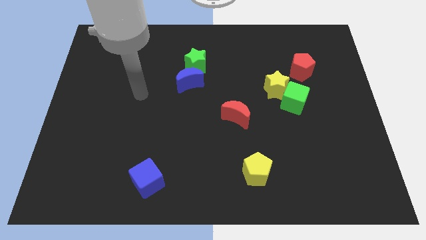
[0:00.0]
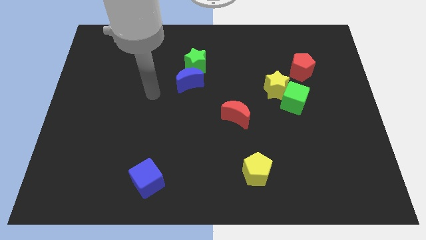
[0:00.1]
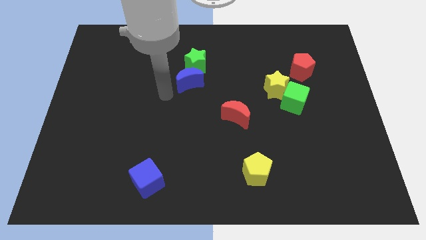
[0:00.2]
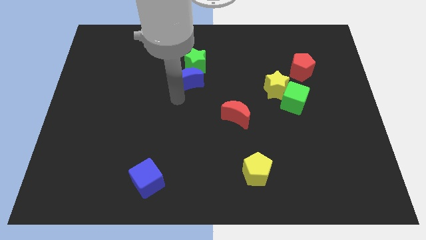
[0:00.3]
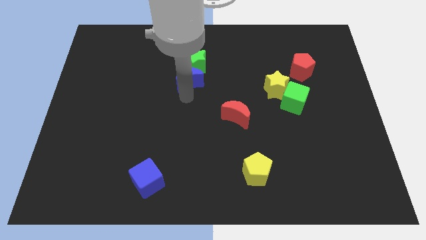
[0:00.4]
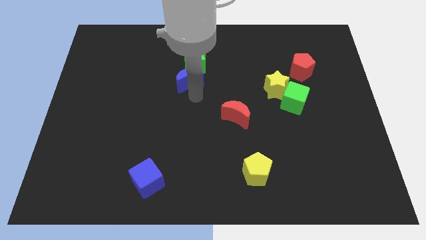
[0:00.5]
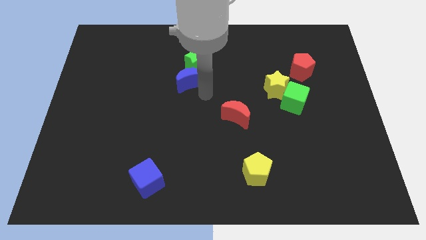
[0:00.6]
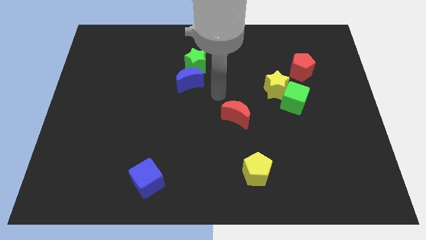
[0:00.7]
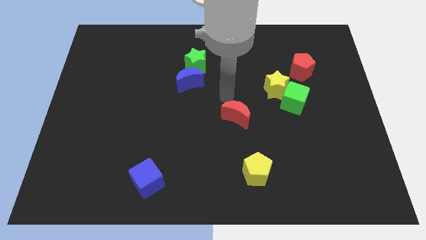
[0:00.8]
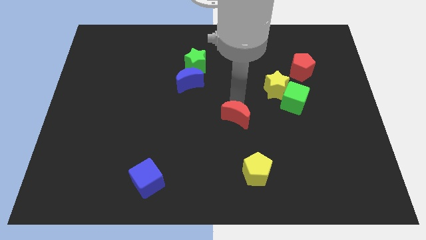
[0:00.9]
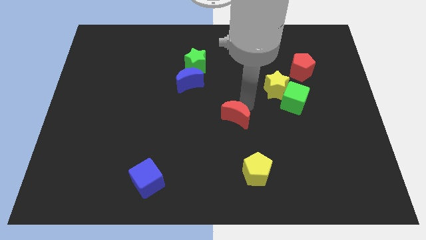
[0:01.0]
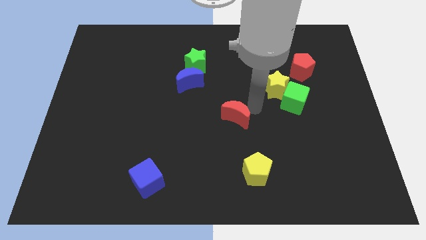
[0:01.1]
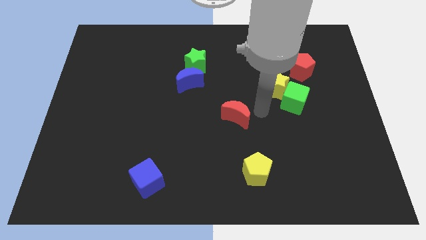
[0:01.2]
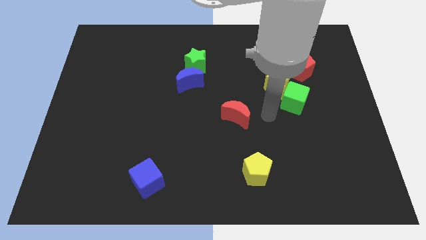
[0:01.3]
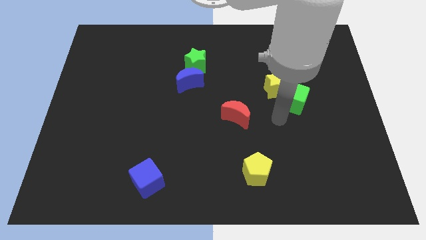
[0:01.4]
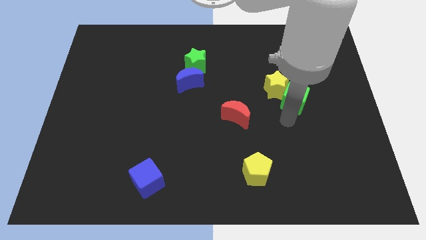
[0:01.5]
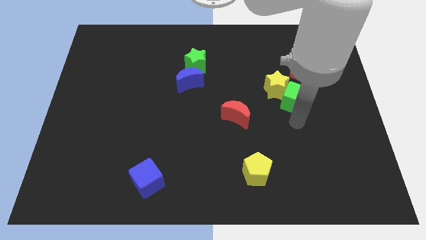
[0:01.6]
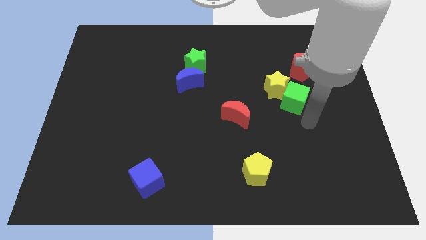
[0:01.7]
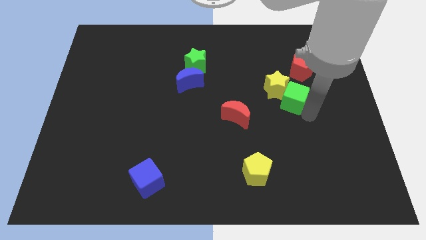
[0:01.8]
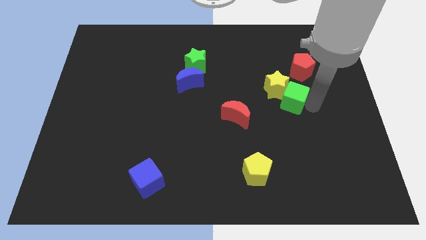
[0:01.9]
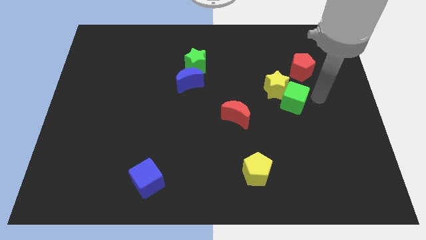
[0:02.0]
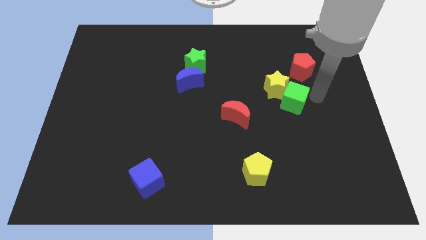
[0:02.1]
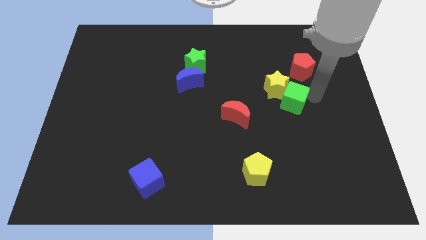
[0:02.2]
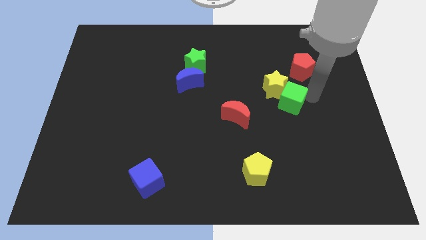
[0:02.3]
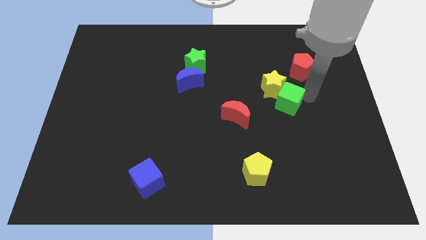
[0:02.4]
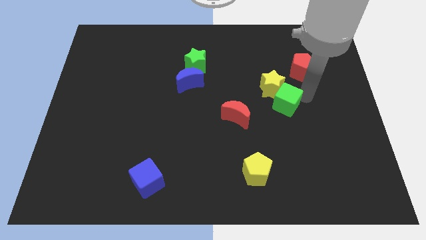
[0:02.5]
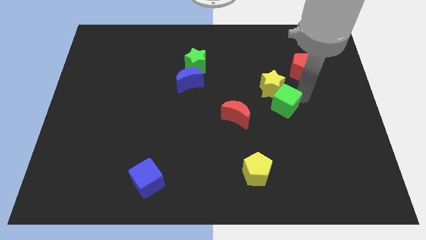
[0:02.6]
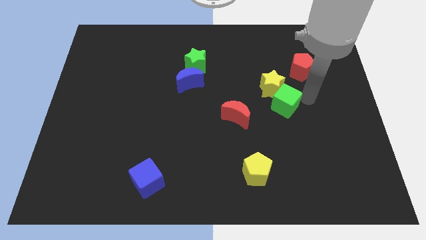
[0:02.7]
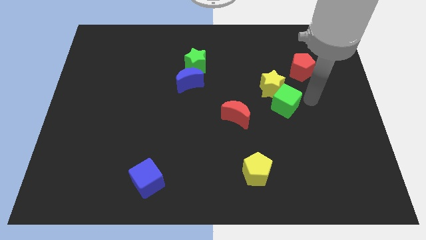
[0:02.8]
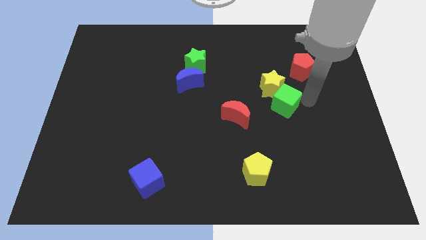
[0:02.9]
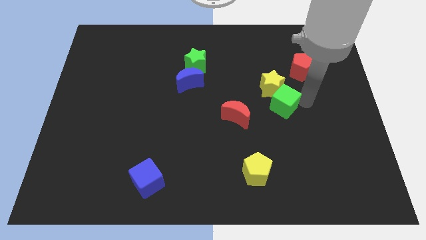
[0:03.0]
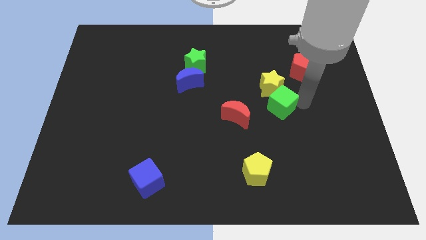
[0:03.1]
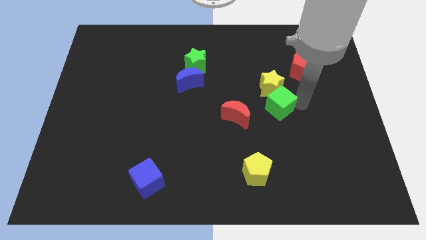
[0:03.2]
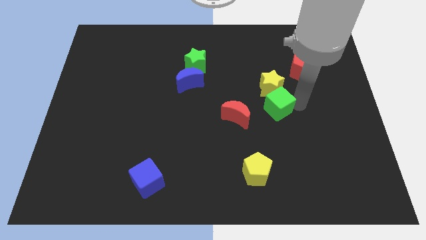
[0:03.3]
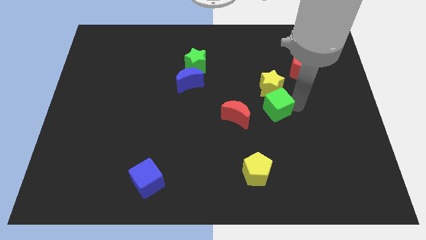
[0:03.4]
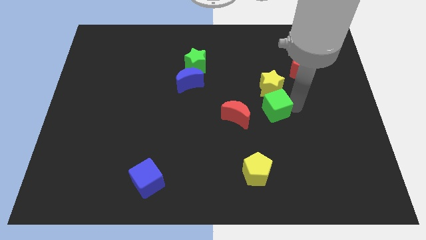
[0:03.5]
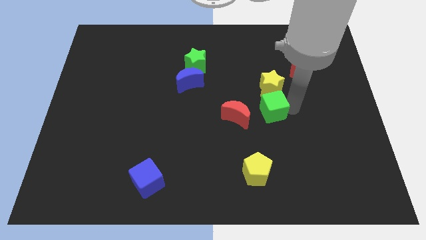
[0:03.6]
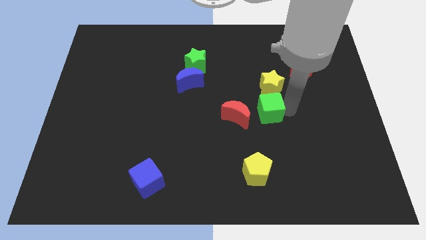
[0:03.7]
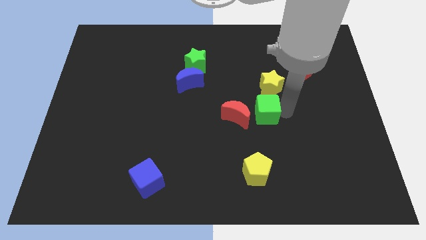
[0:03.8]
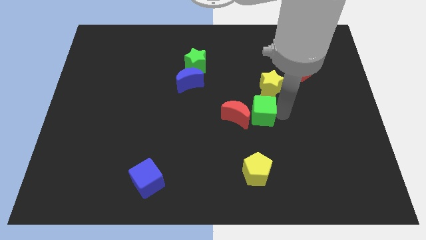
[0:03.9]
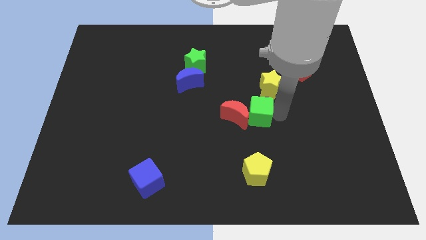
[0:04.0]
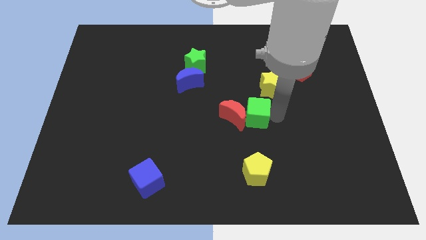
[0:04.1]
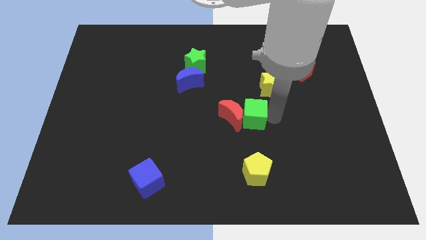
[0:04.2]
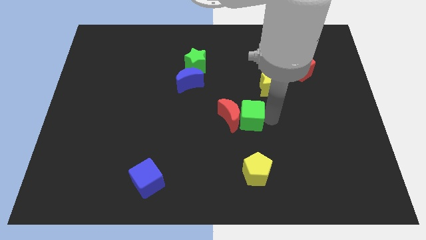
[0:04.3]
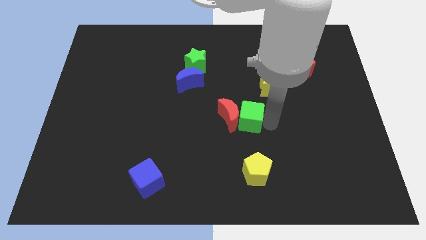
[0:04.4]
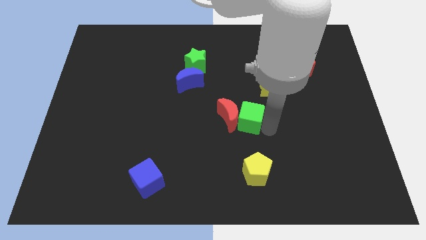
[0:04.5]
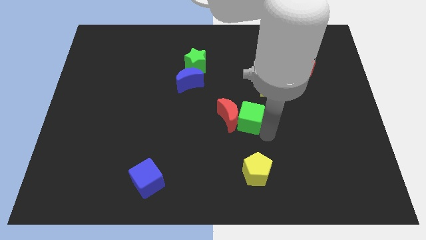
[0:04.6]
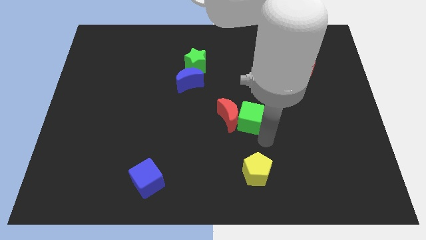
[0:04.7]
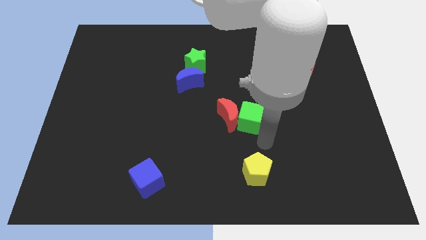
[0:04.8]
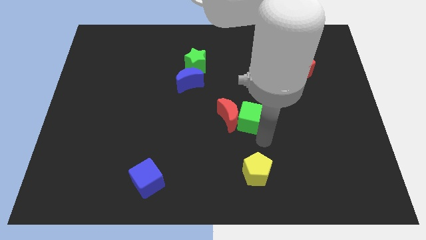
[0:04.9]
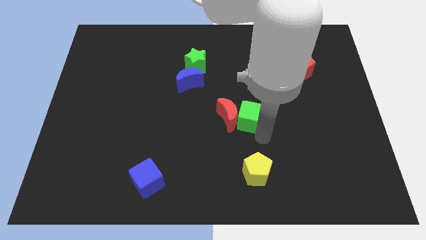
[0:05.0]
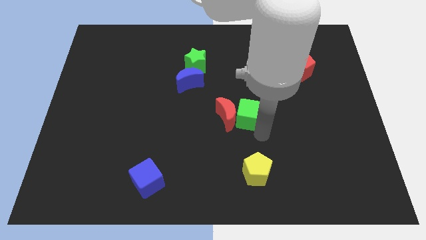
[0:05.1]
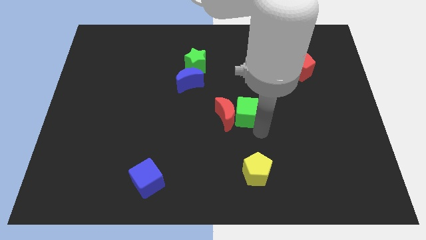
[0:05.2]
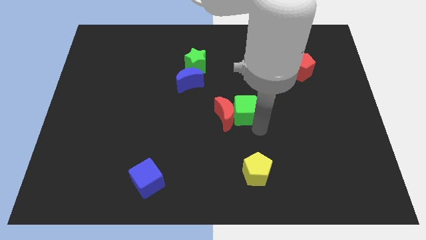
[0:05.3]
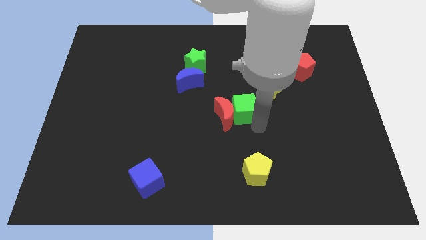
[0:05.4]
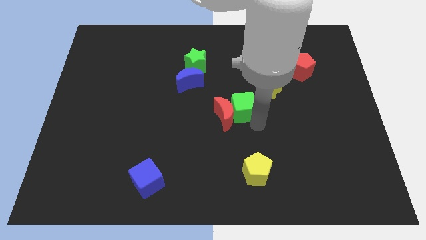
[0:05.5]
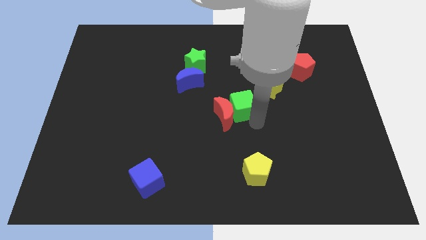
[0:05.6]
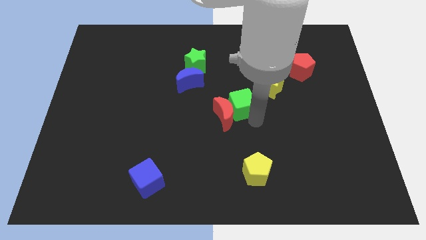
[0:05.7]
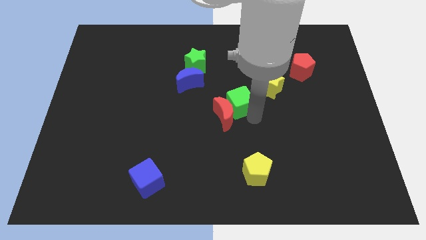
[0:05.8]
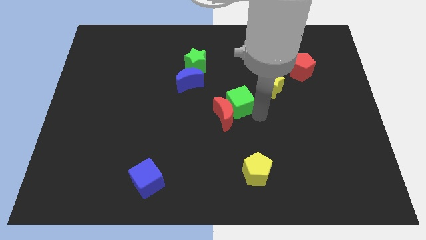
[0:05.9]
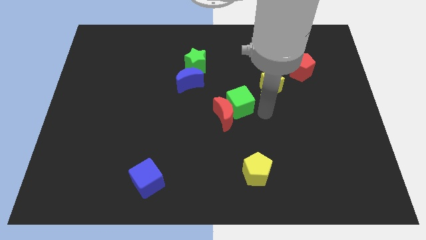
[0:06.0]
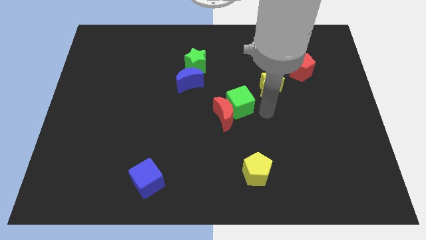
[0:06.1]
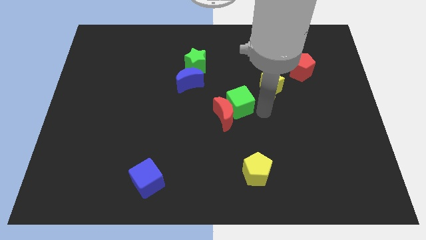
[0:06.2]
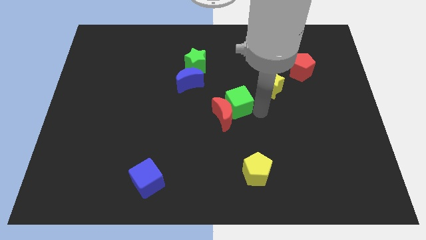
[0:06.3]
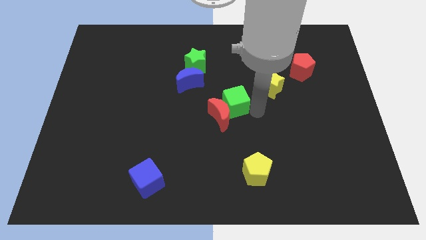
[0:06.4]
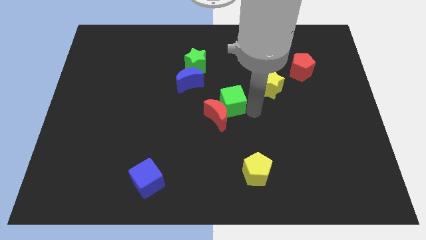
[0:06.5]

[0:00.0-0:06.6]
push the green cube to the bottom right side of the blue moon

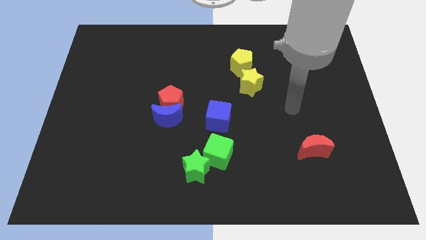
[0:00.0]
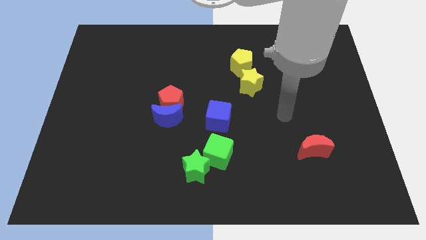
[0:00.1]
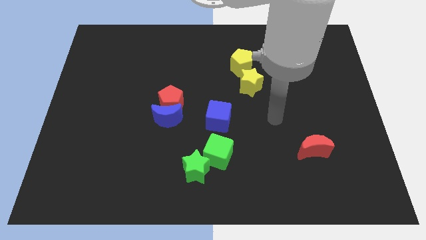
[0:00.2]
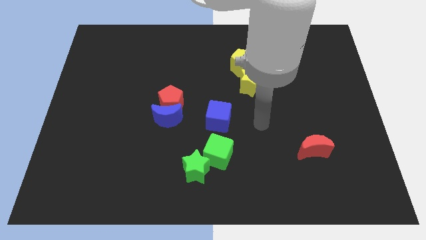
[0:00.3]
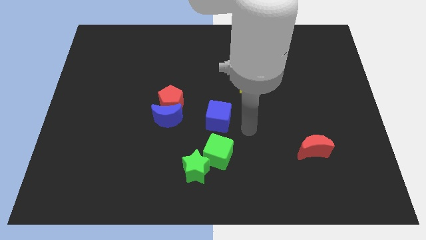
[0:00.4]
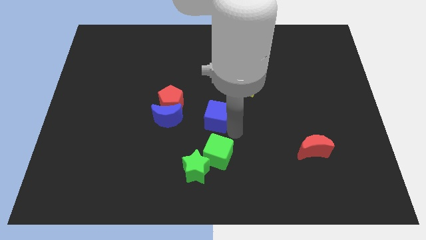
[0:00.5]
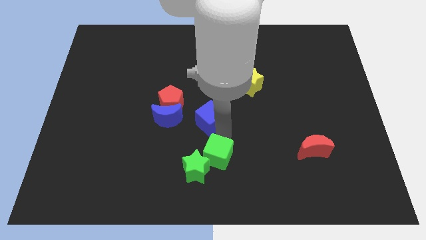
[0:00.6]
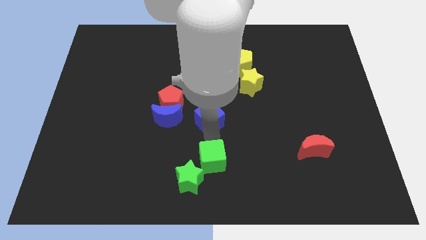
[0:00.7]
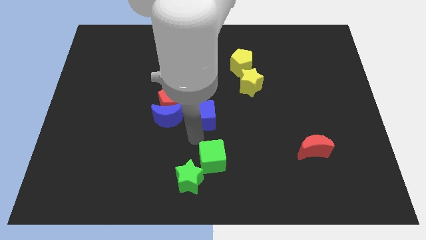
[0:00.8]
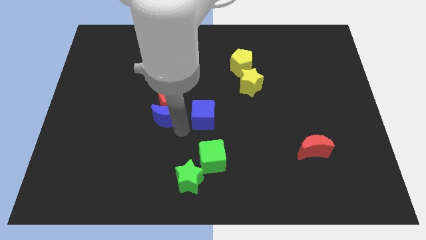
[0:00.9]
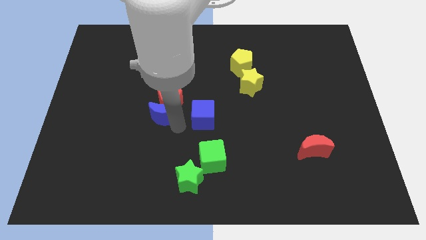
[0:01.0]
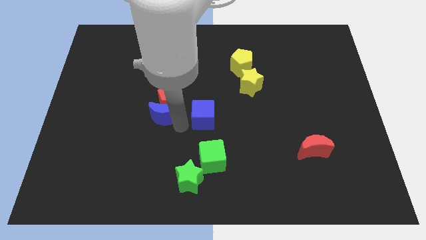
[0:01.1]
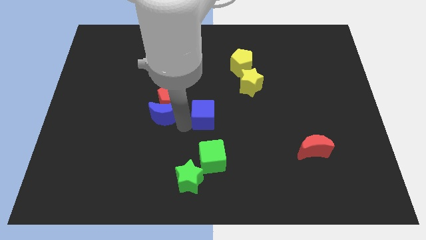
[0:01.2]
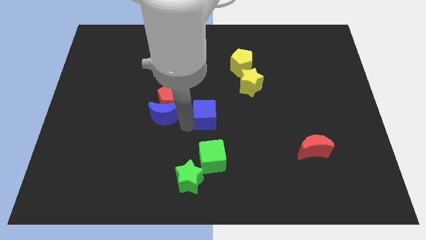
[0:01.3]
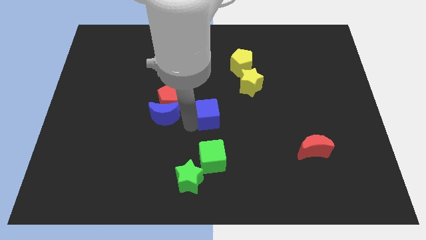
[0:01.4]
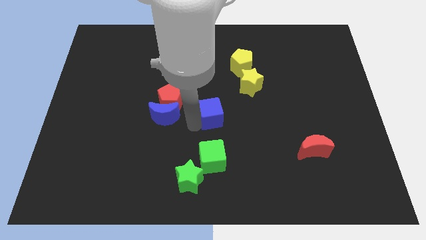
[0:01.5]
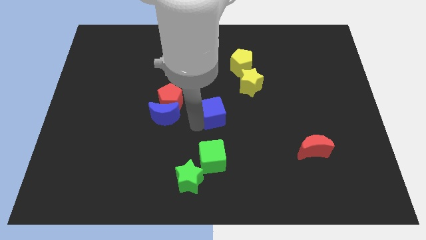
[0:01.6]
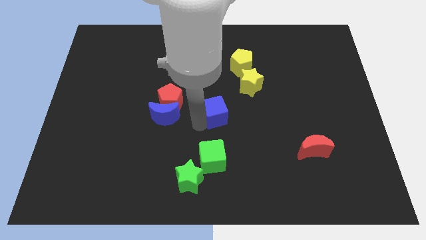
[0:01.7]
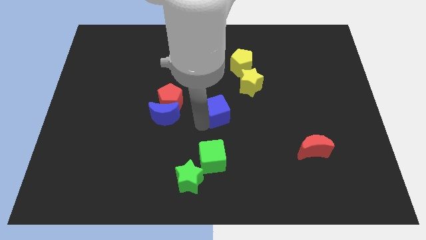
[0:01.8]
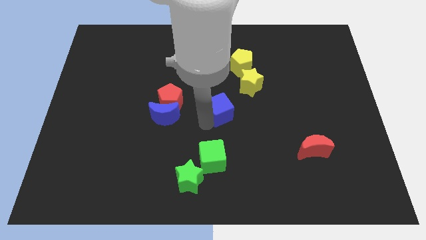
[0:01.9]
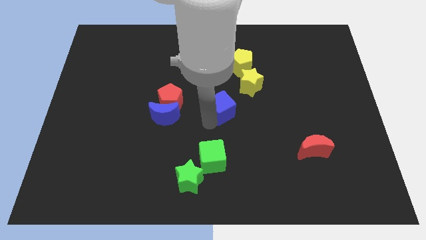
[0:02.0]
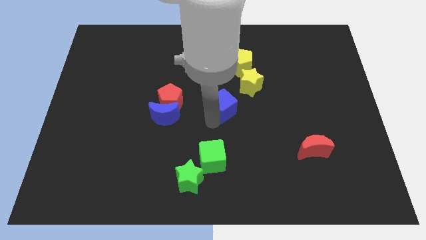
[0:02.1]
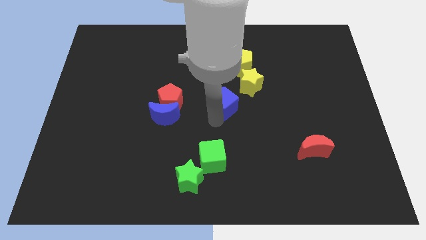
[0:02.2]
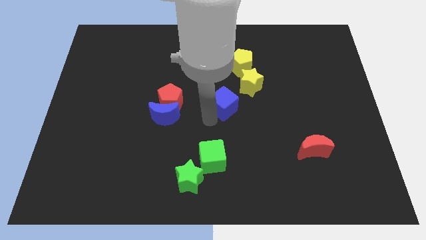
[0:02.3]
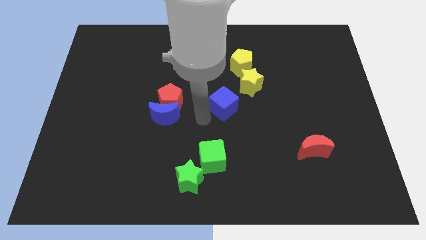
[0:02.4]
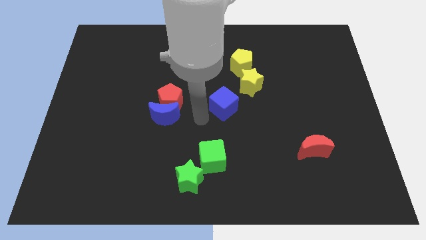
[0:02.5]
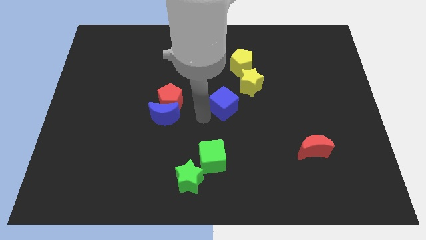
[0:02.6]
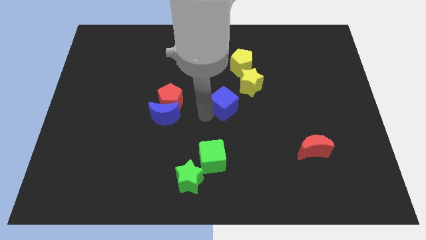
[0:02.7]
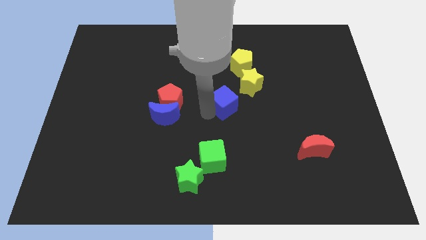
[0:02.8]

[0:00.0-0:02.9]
put the blue cube to the bottom side of the yellow pentagon
